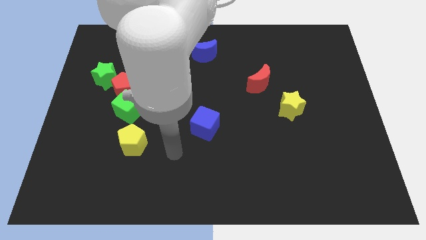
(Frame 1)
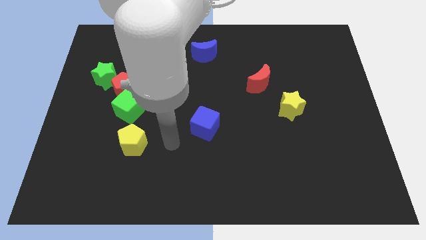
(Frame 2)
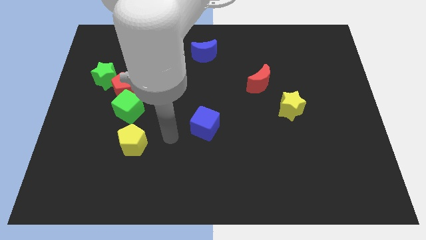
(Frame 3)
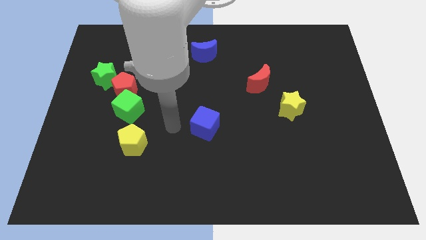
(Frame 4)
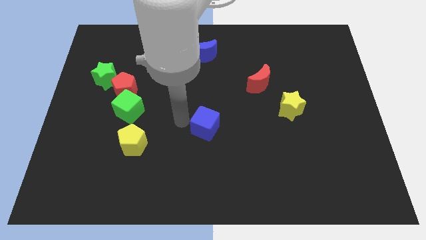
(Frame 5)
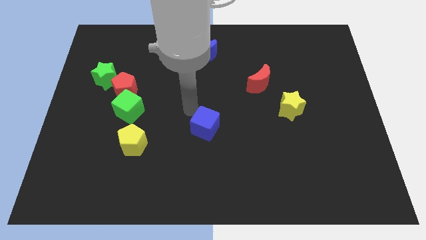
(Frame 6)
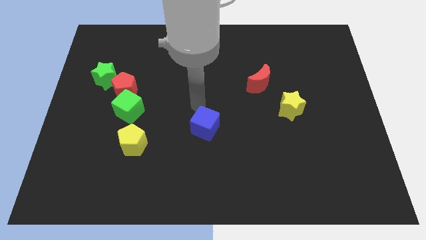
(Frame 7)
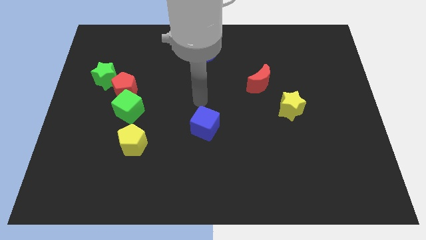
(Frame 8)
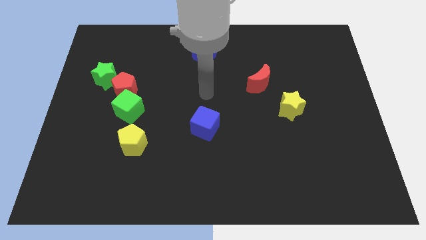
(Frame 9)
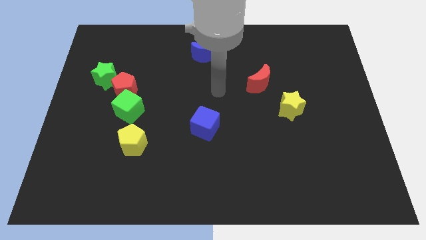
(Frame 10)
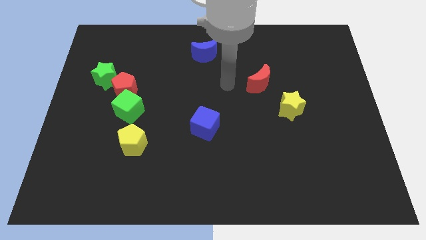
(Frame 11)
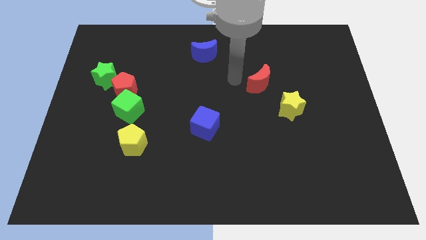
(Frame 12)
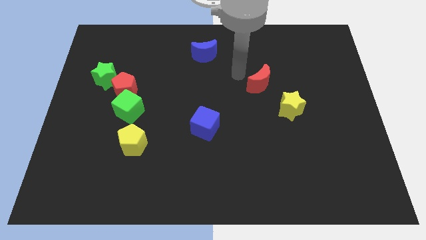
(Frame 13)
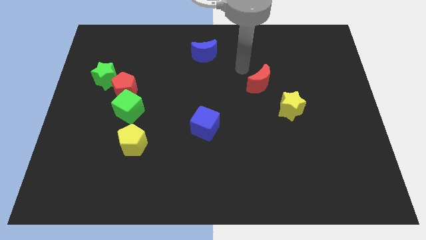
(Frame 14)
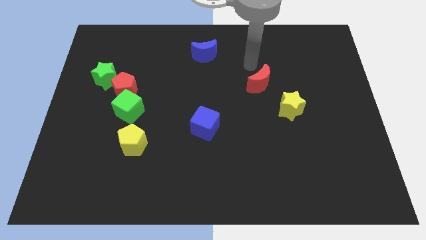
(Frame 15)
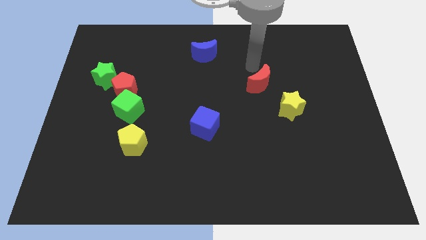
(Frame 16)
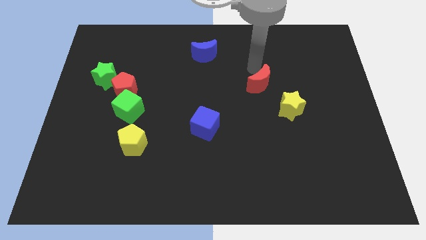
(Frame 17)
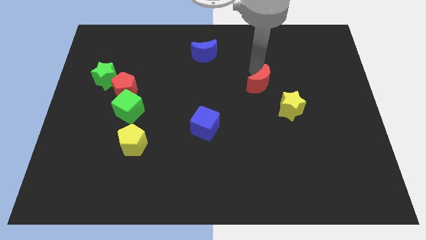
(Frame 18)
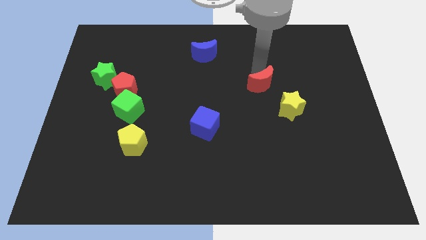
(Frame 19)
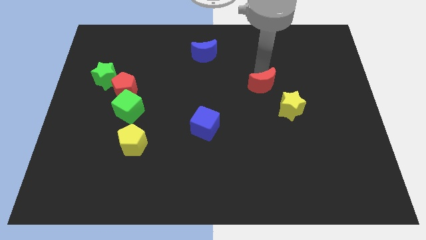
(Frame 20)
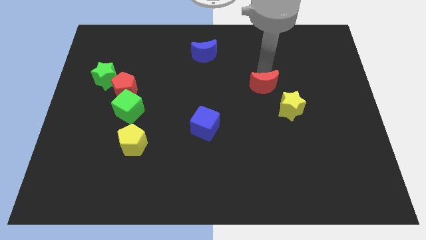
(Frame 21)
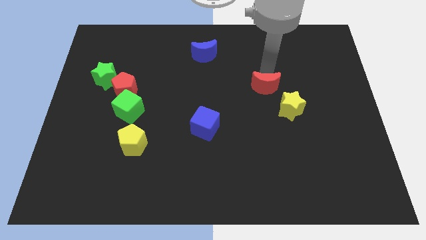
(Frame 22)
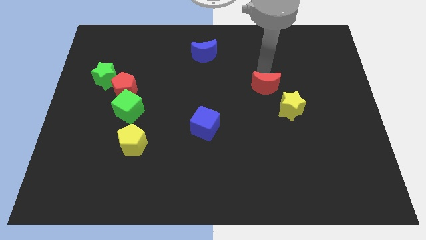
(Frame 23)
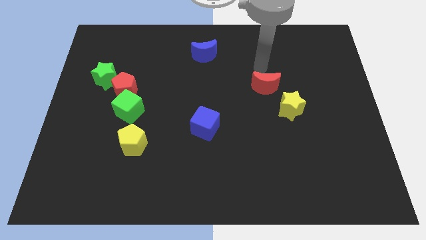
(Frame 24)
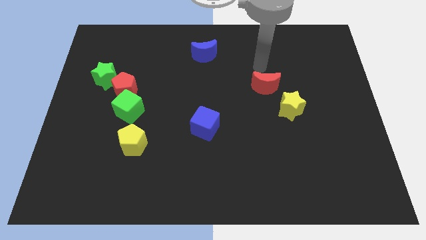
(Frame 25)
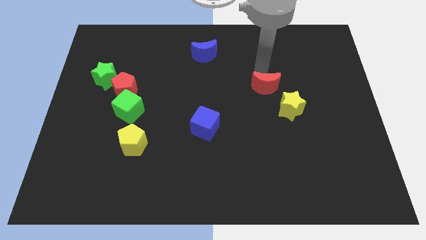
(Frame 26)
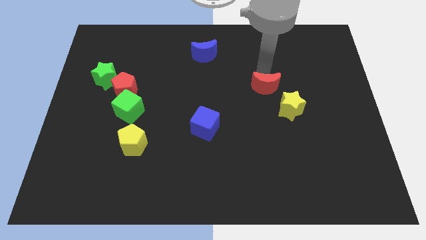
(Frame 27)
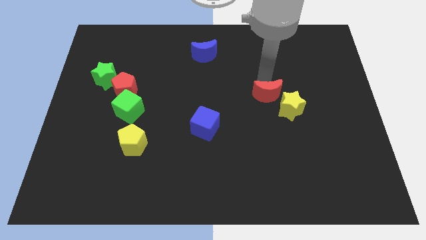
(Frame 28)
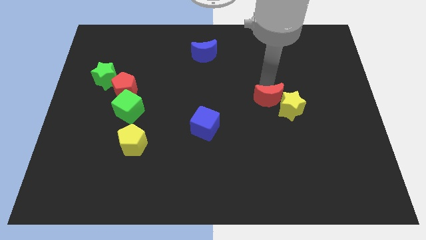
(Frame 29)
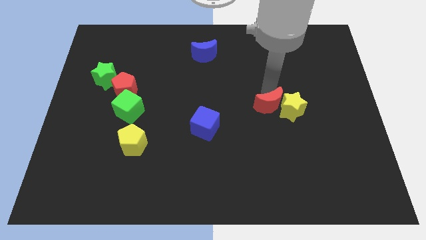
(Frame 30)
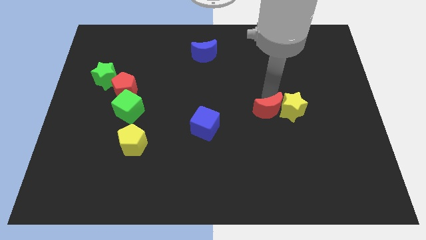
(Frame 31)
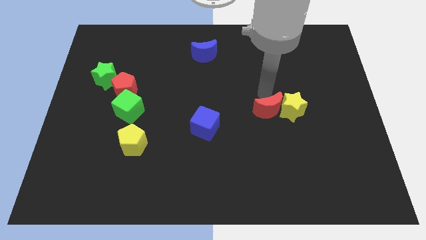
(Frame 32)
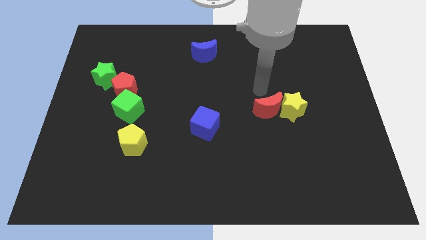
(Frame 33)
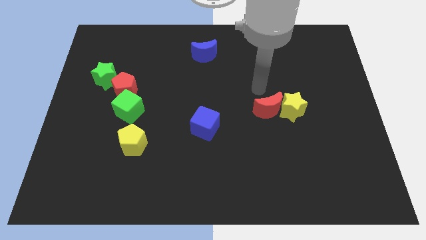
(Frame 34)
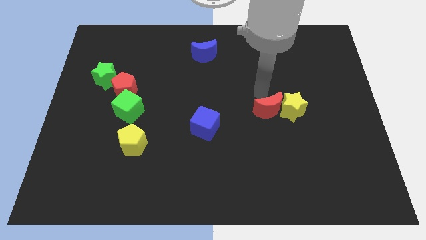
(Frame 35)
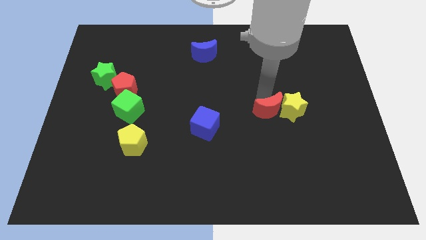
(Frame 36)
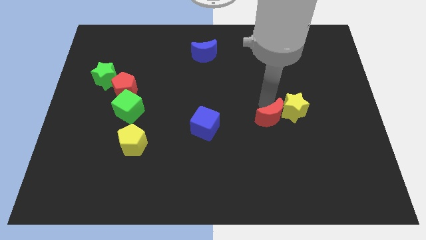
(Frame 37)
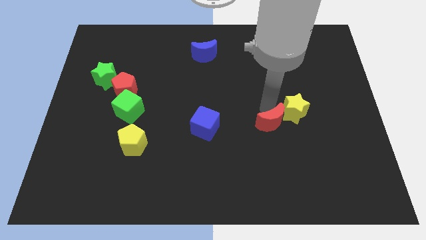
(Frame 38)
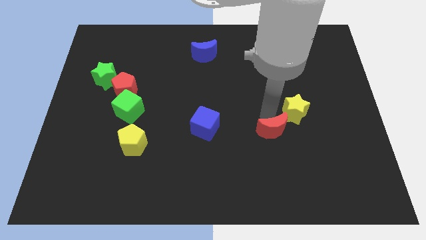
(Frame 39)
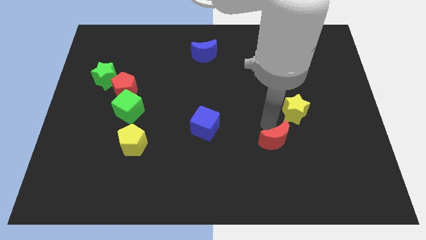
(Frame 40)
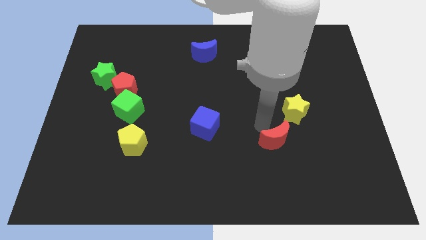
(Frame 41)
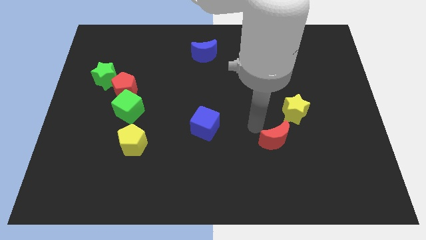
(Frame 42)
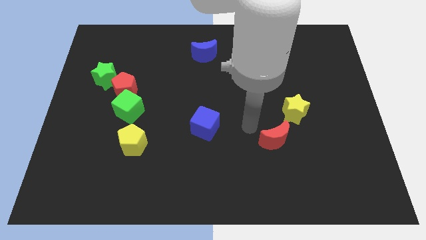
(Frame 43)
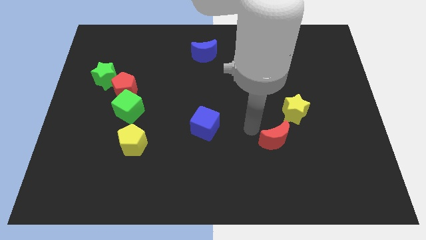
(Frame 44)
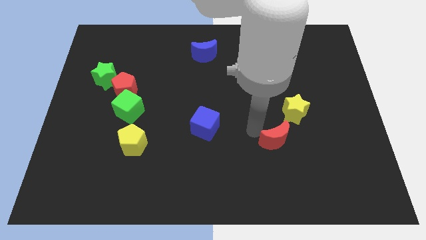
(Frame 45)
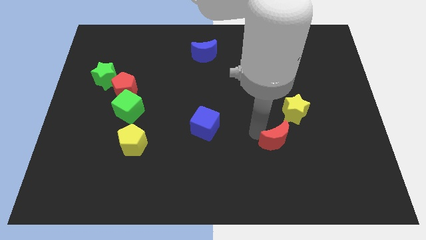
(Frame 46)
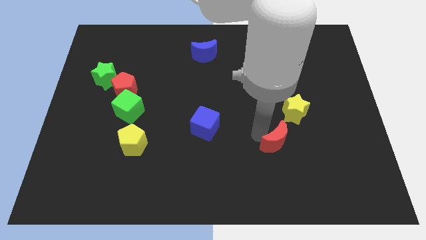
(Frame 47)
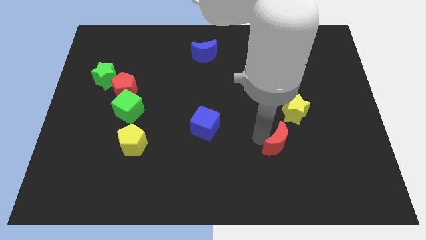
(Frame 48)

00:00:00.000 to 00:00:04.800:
slide the red moon to the bottom of the yellow star

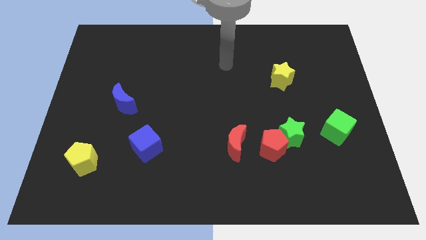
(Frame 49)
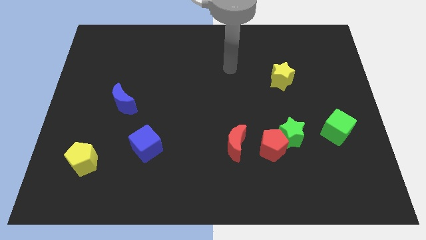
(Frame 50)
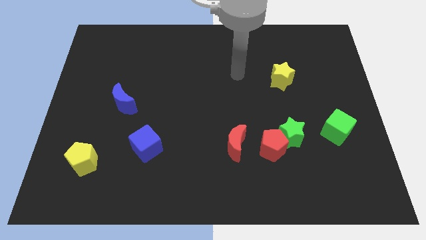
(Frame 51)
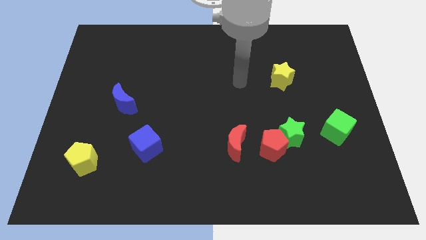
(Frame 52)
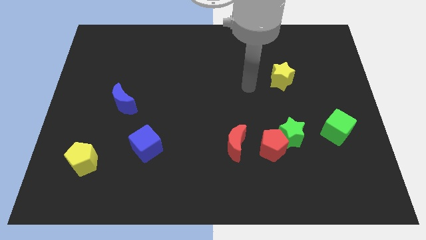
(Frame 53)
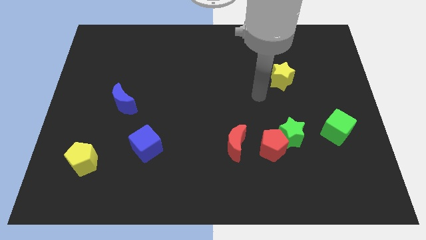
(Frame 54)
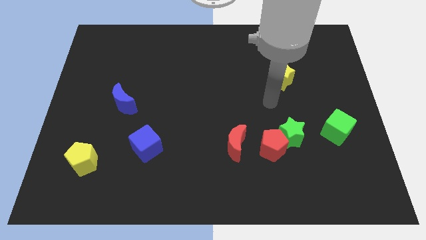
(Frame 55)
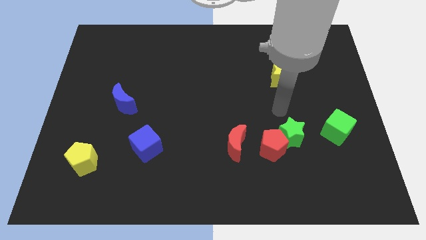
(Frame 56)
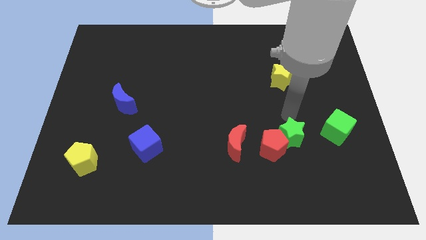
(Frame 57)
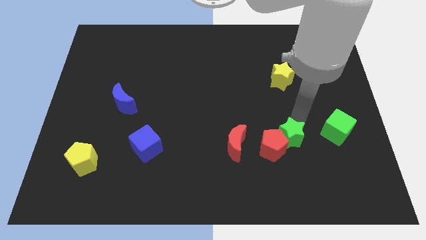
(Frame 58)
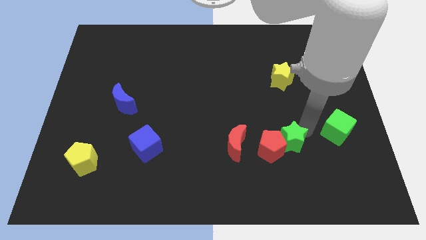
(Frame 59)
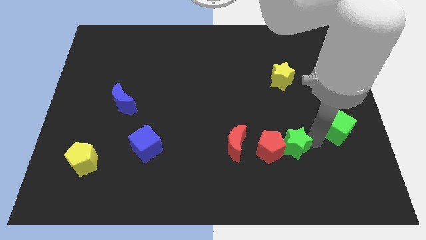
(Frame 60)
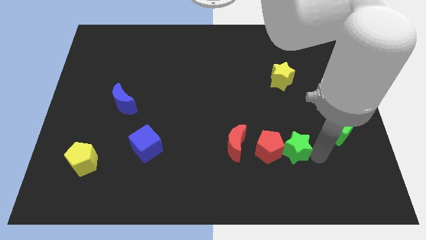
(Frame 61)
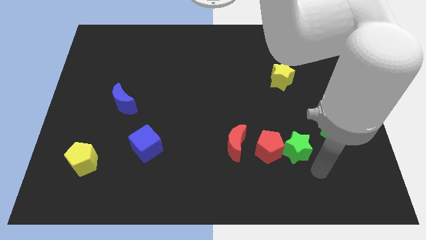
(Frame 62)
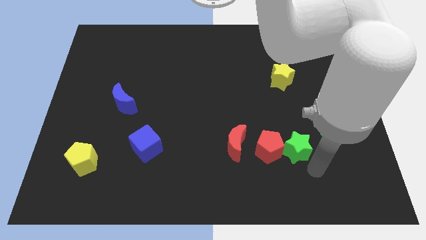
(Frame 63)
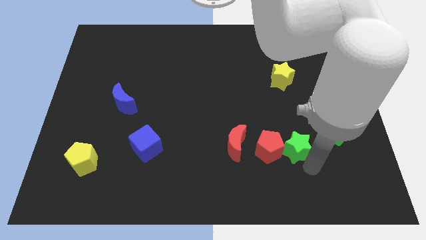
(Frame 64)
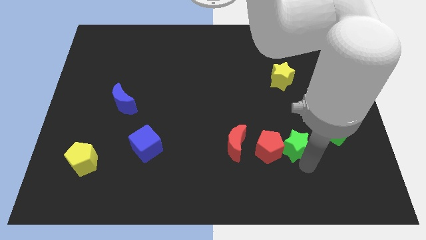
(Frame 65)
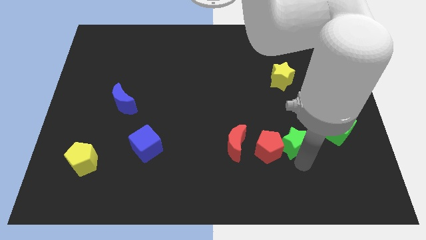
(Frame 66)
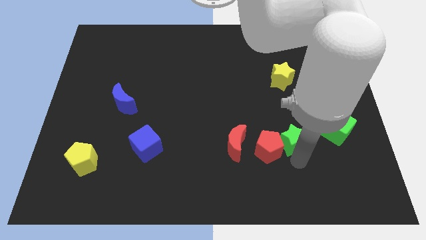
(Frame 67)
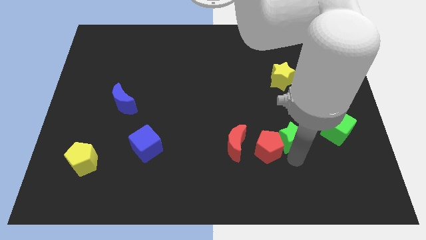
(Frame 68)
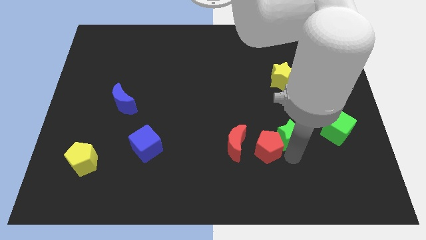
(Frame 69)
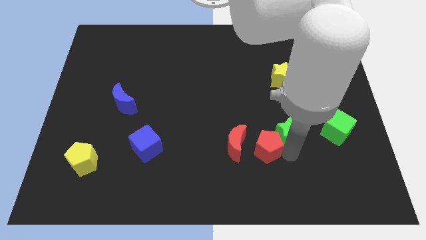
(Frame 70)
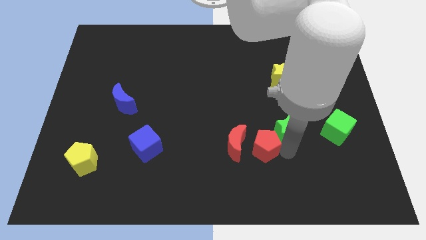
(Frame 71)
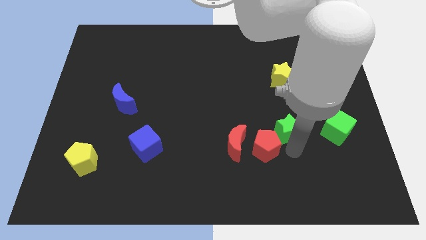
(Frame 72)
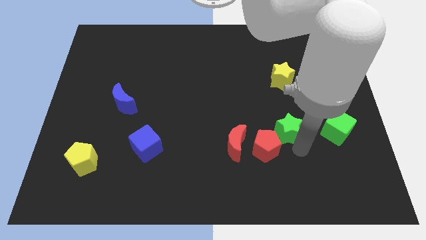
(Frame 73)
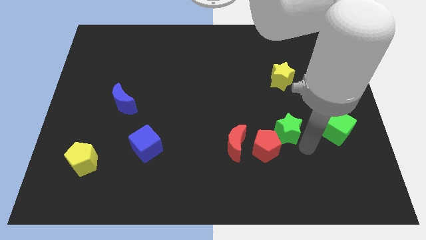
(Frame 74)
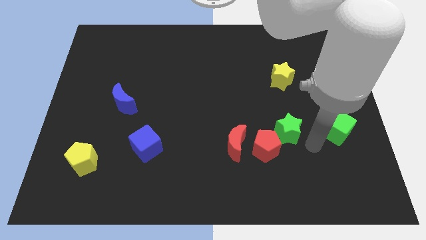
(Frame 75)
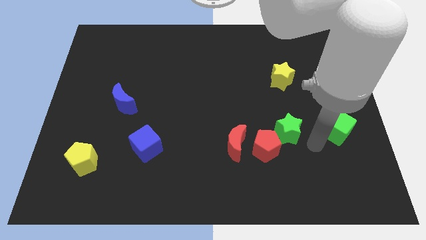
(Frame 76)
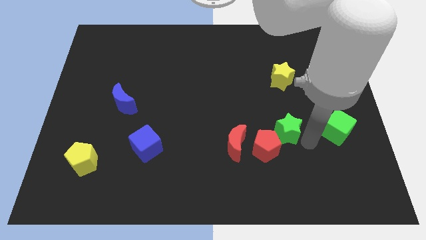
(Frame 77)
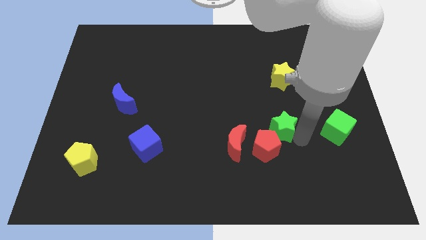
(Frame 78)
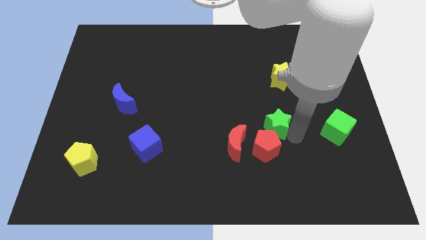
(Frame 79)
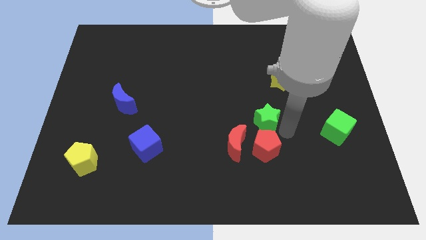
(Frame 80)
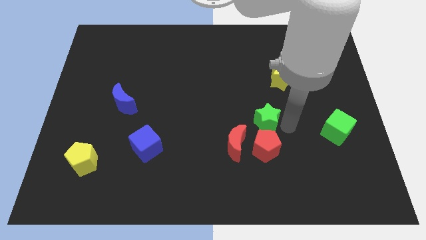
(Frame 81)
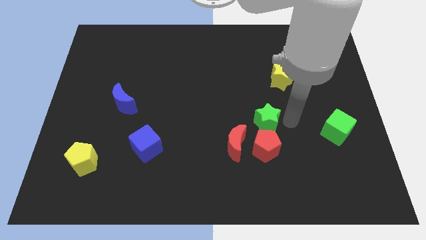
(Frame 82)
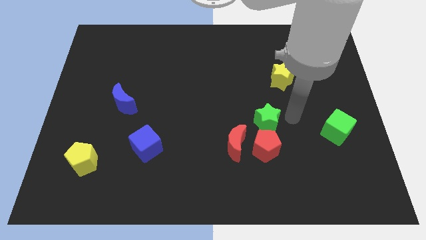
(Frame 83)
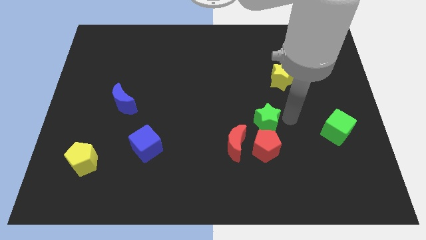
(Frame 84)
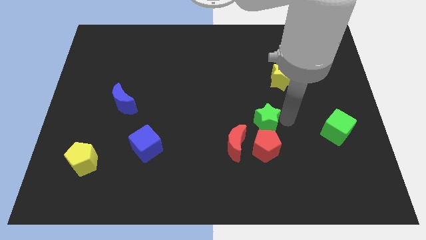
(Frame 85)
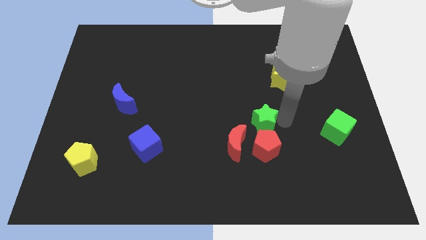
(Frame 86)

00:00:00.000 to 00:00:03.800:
put the green star diagonally up and to the left of the red pentagon
